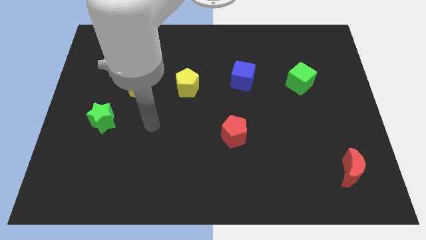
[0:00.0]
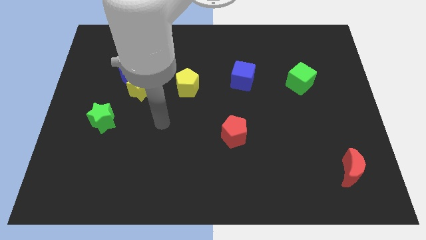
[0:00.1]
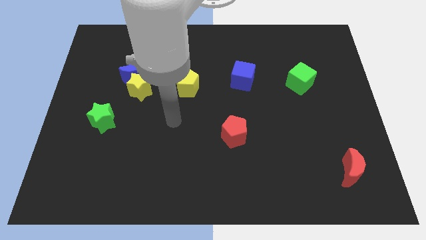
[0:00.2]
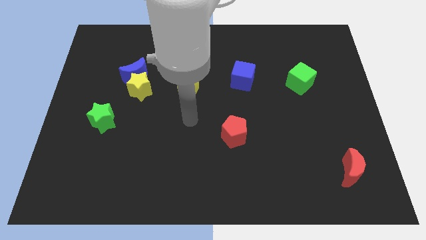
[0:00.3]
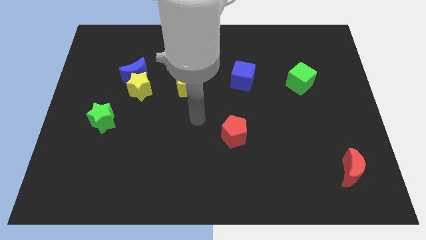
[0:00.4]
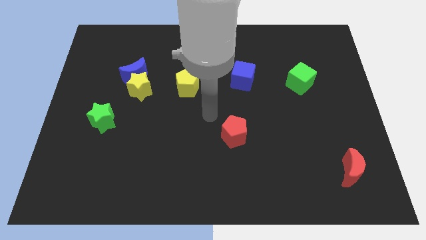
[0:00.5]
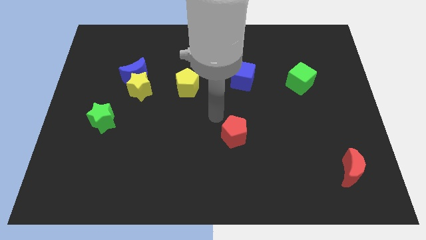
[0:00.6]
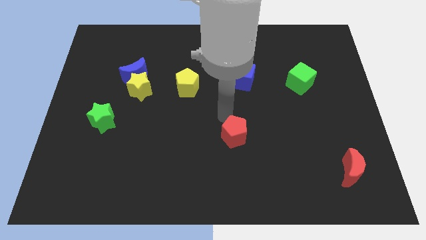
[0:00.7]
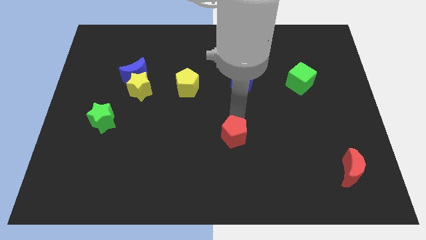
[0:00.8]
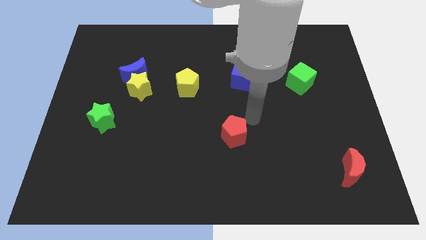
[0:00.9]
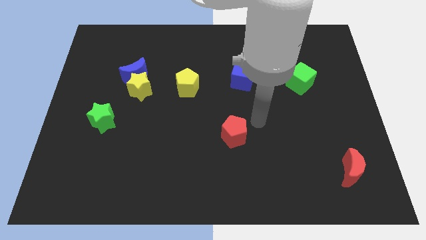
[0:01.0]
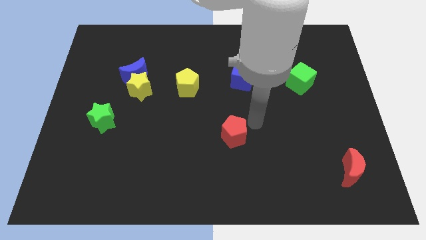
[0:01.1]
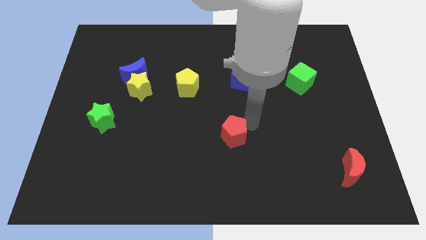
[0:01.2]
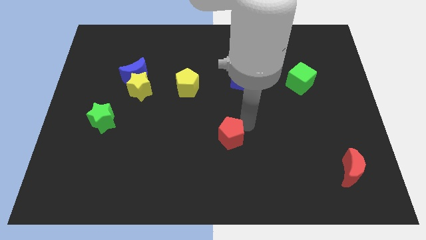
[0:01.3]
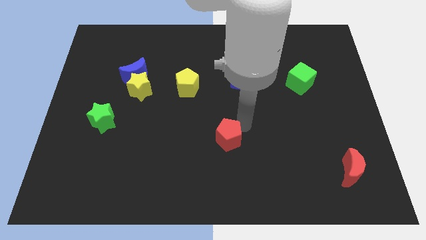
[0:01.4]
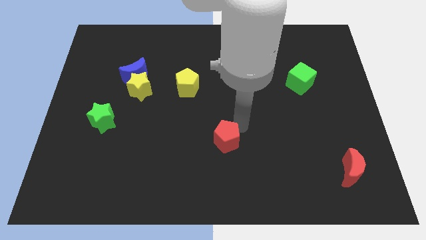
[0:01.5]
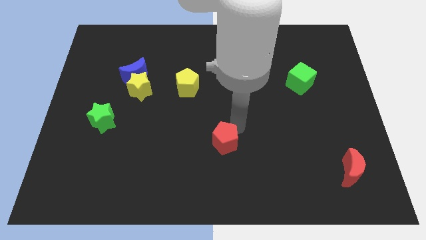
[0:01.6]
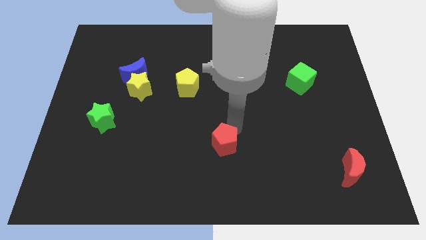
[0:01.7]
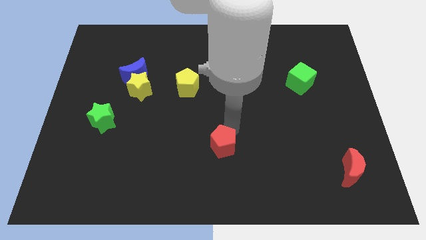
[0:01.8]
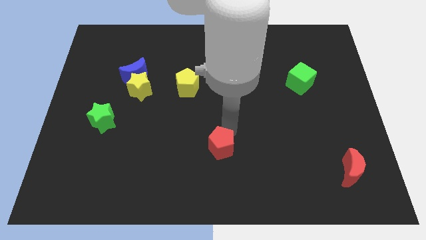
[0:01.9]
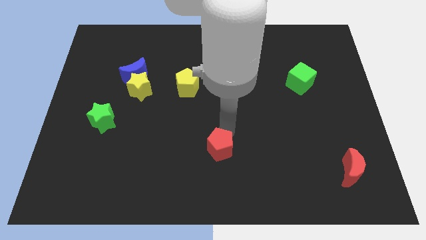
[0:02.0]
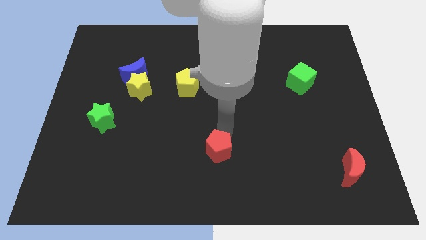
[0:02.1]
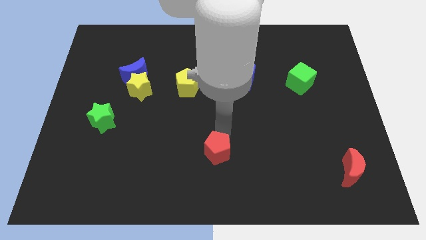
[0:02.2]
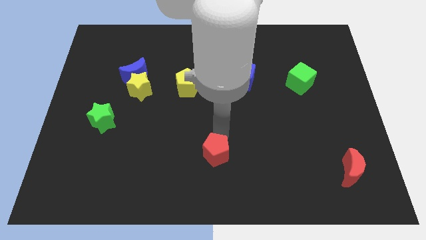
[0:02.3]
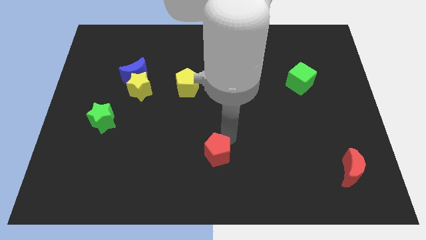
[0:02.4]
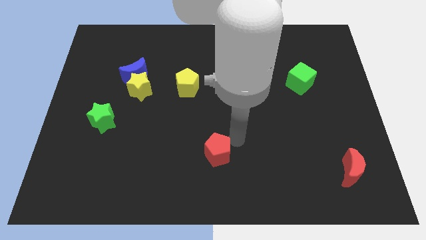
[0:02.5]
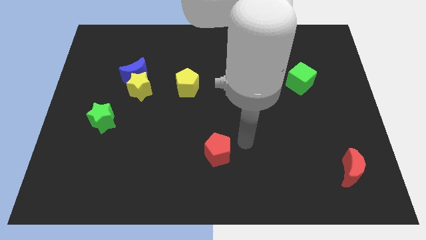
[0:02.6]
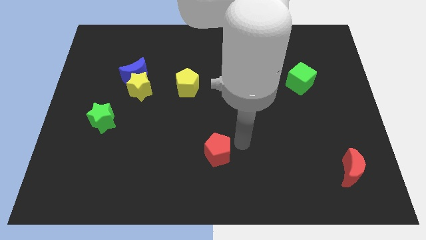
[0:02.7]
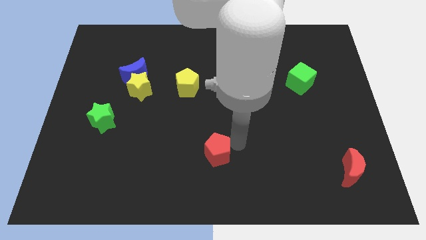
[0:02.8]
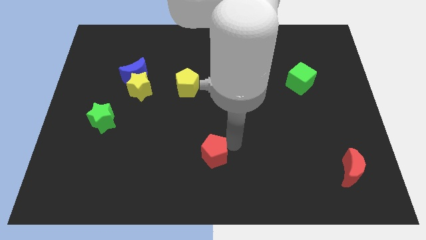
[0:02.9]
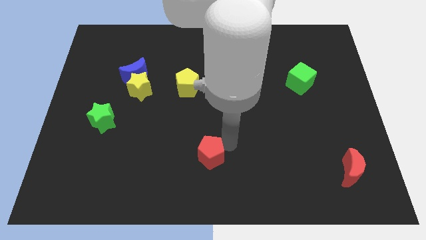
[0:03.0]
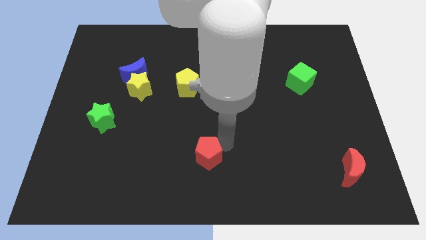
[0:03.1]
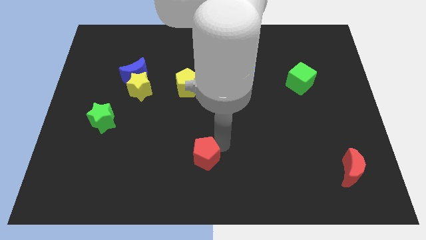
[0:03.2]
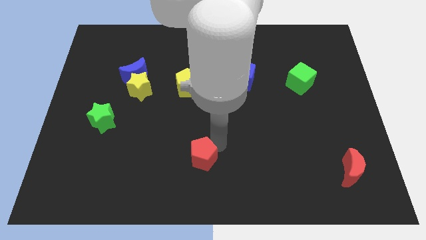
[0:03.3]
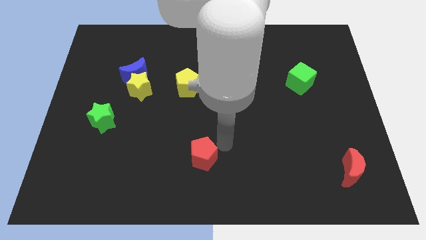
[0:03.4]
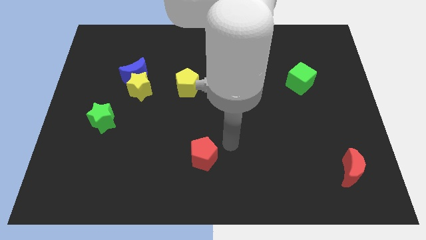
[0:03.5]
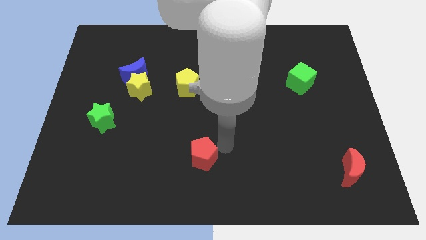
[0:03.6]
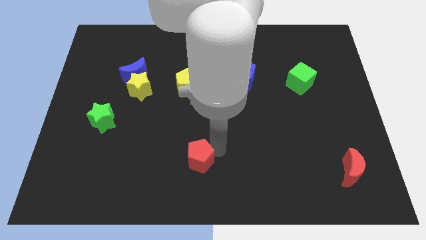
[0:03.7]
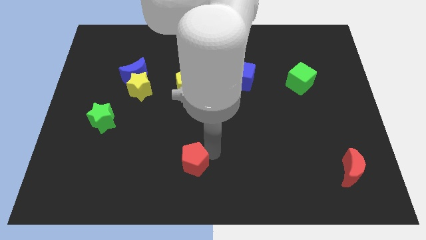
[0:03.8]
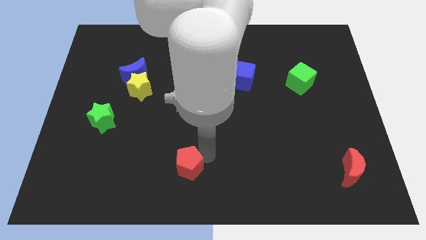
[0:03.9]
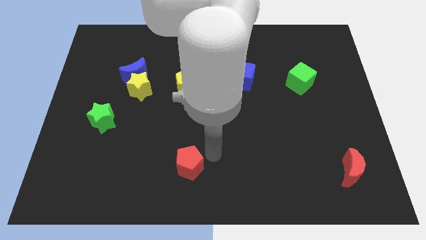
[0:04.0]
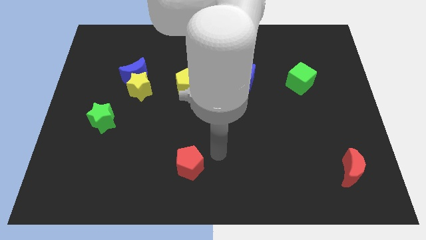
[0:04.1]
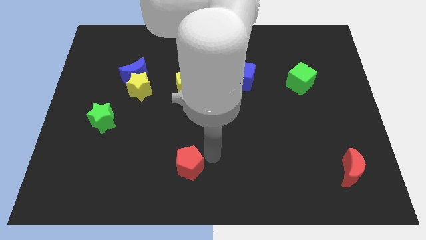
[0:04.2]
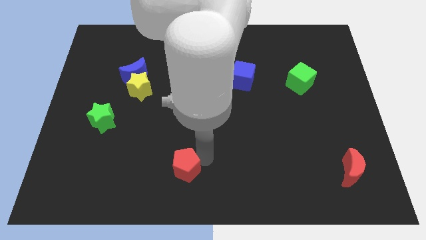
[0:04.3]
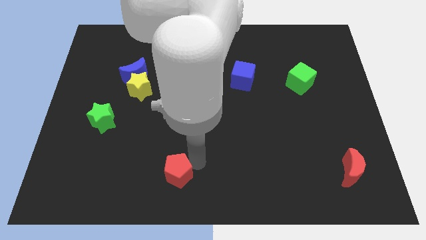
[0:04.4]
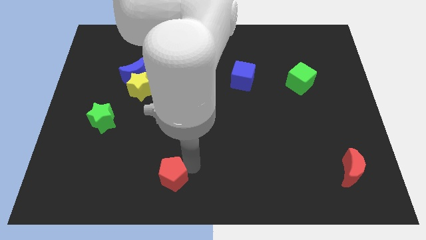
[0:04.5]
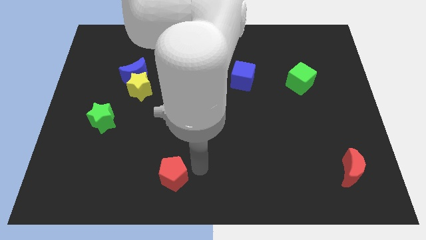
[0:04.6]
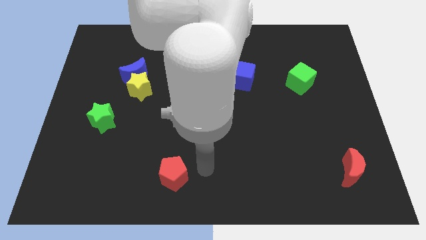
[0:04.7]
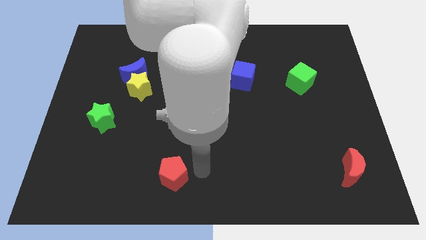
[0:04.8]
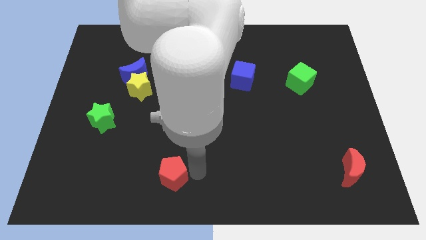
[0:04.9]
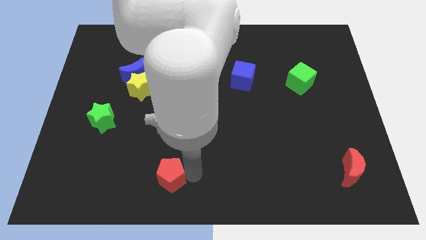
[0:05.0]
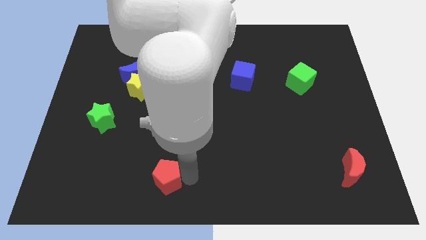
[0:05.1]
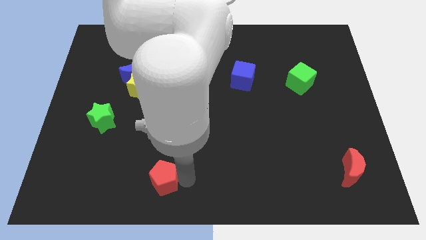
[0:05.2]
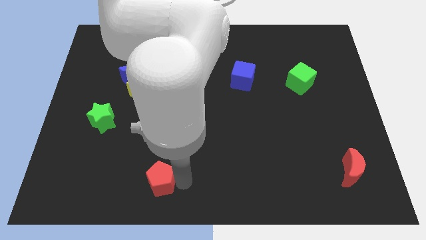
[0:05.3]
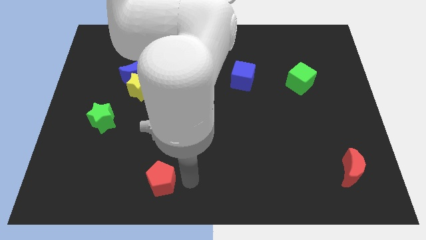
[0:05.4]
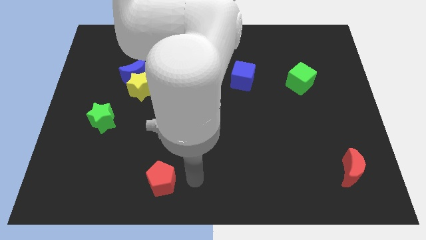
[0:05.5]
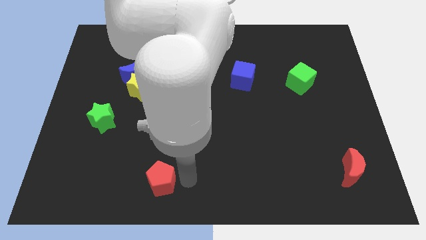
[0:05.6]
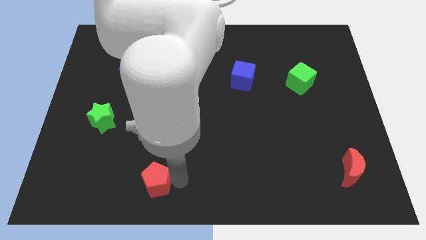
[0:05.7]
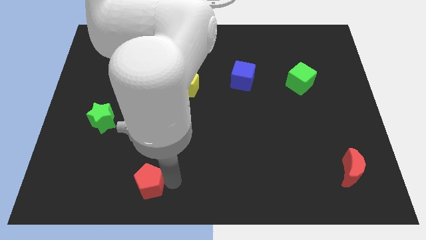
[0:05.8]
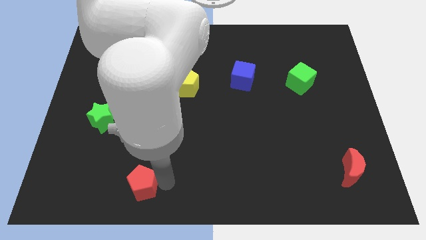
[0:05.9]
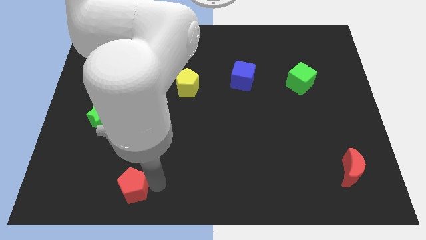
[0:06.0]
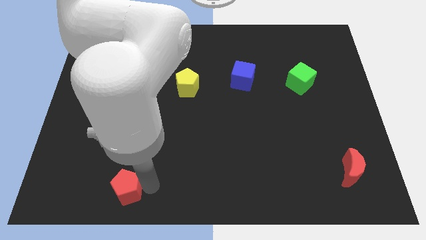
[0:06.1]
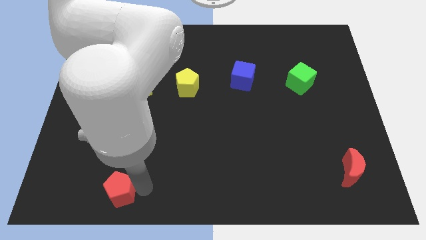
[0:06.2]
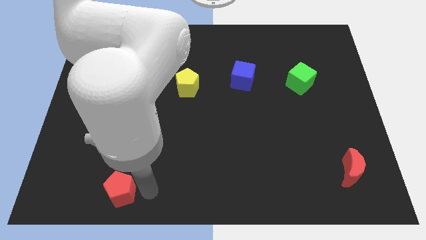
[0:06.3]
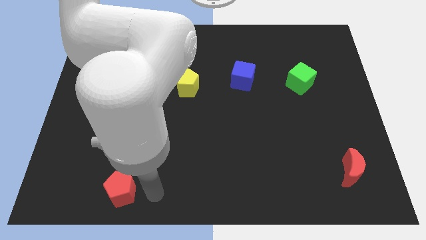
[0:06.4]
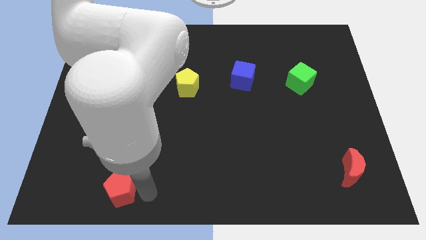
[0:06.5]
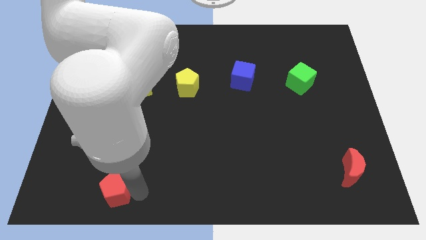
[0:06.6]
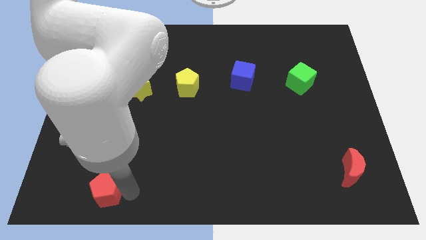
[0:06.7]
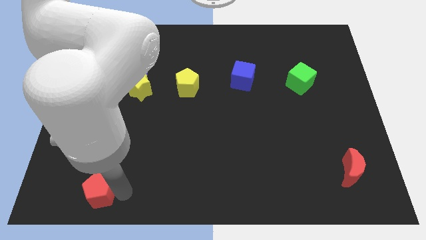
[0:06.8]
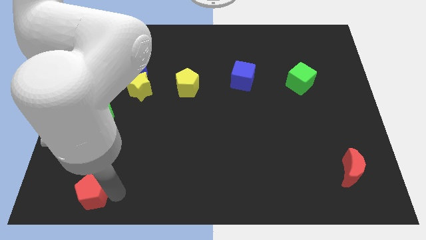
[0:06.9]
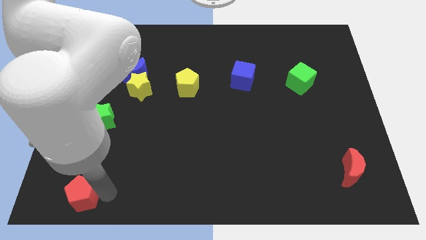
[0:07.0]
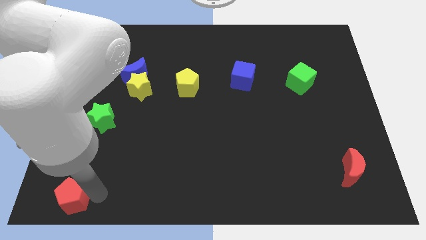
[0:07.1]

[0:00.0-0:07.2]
slide the red pentagon to the bottom left
